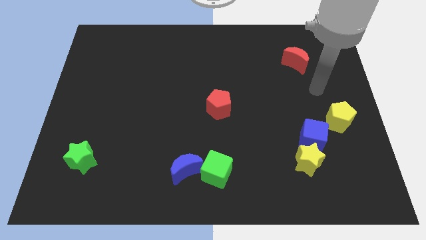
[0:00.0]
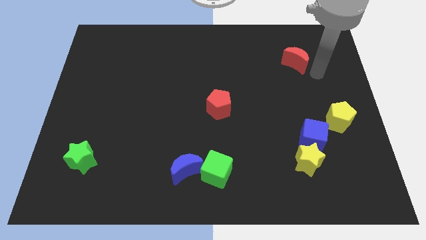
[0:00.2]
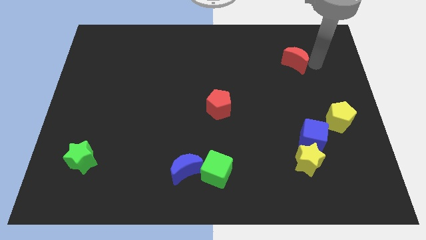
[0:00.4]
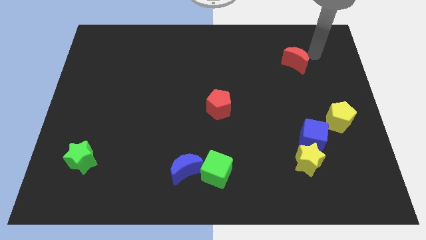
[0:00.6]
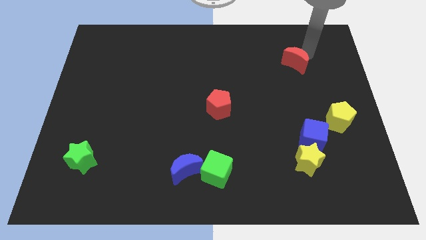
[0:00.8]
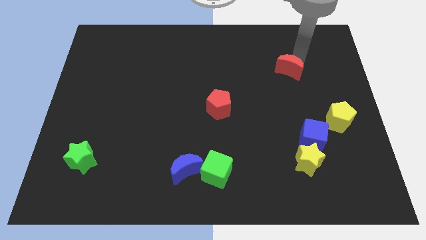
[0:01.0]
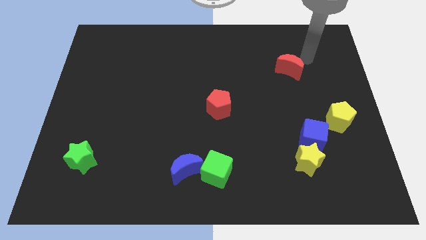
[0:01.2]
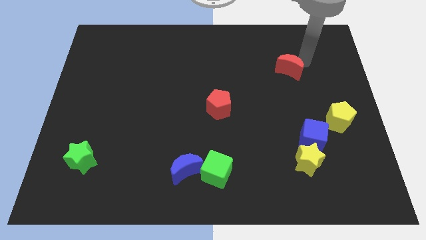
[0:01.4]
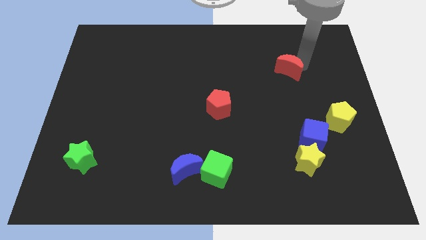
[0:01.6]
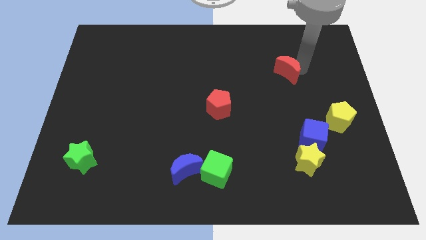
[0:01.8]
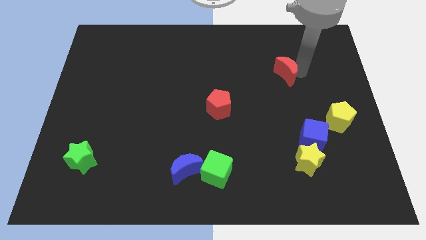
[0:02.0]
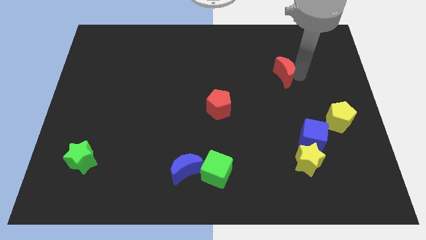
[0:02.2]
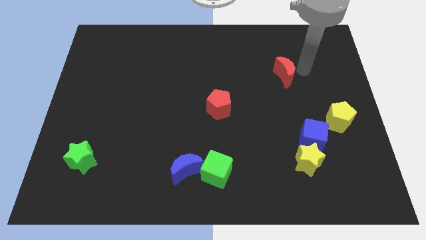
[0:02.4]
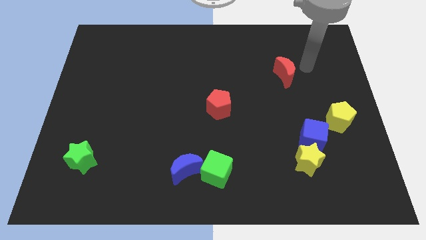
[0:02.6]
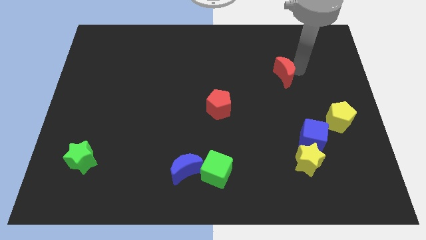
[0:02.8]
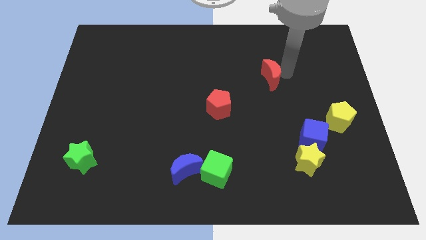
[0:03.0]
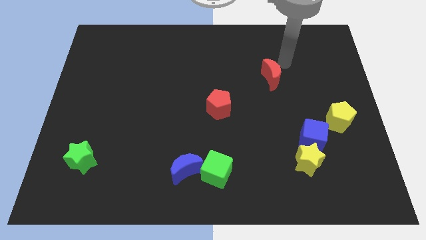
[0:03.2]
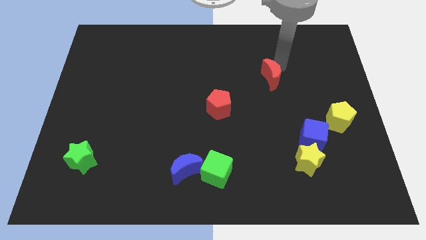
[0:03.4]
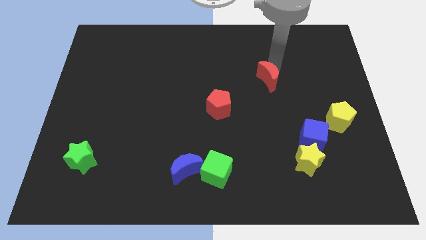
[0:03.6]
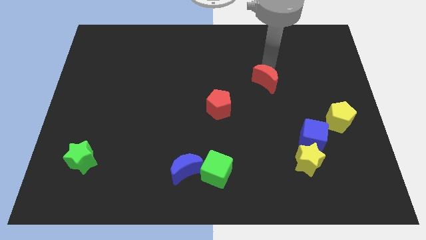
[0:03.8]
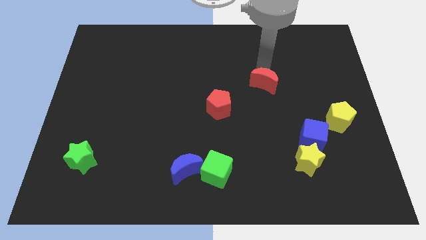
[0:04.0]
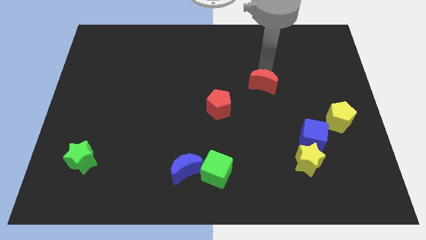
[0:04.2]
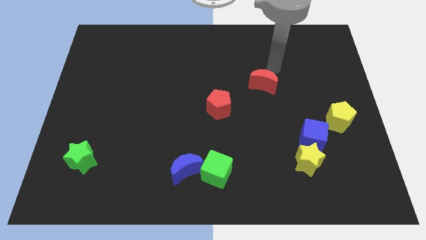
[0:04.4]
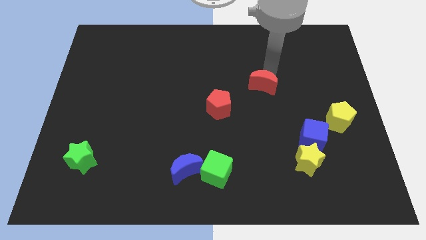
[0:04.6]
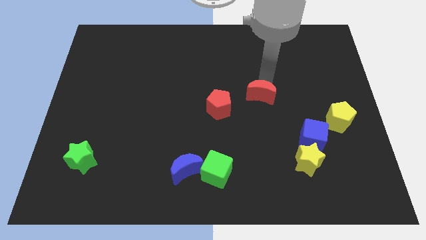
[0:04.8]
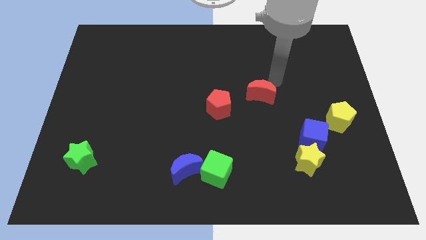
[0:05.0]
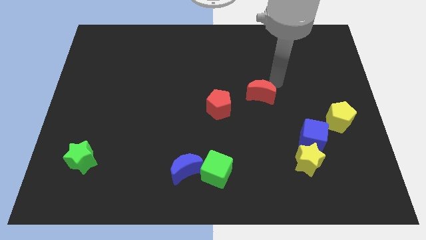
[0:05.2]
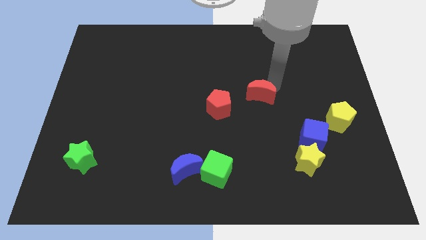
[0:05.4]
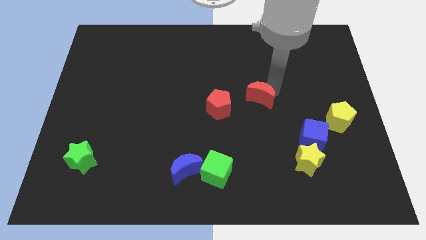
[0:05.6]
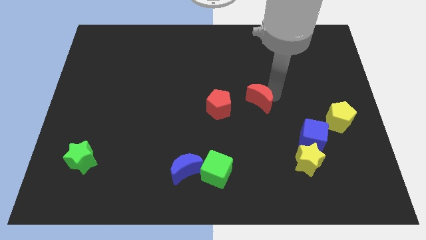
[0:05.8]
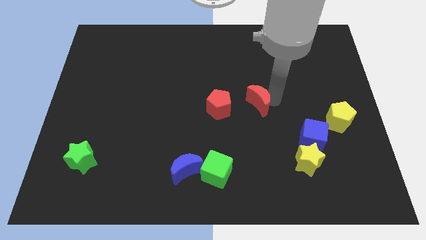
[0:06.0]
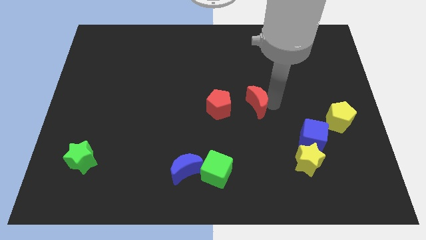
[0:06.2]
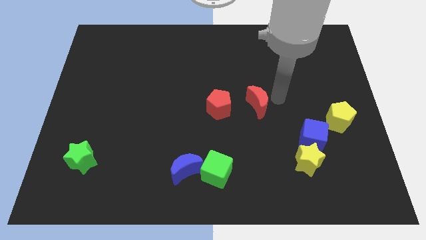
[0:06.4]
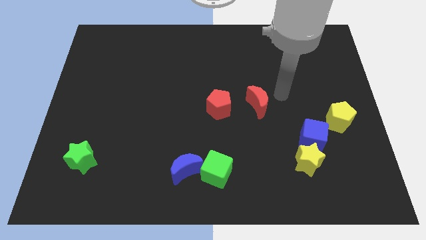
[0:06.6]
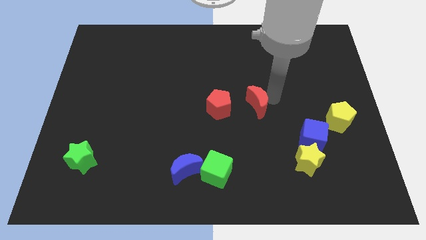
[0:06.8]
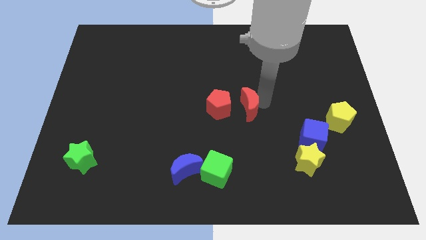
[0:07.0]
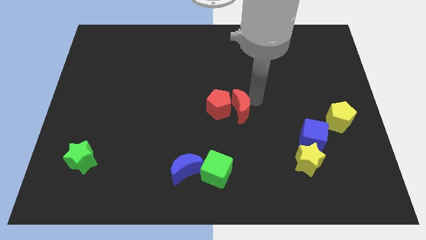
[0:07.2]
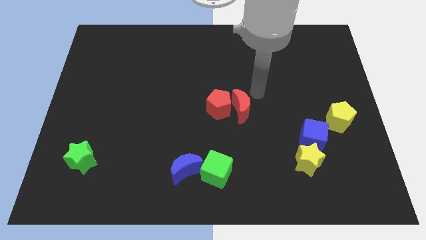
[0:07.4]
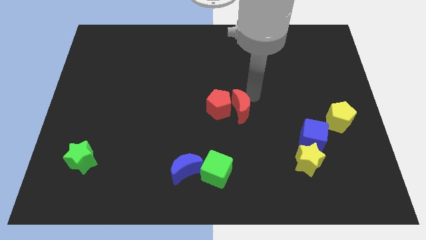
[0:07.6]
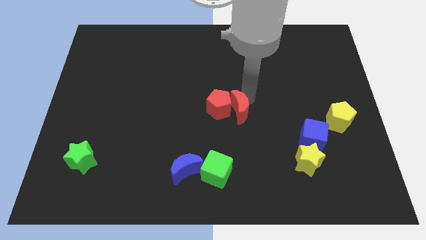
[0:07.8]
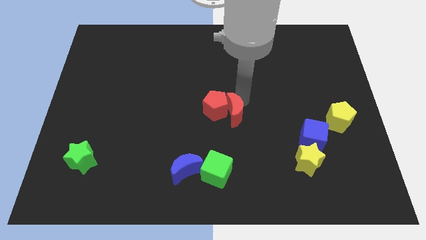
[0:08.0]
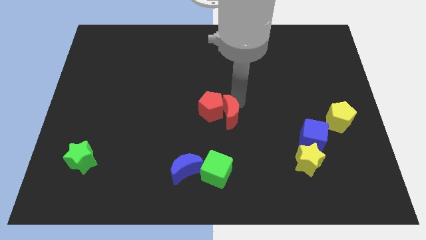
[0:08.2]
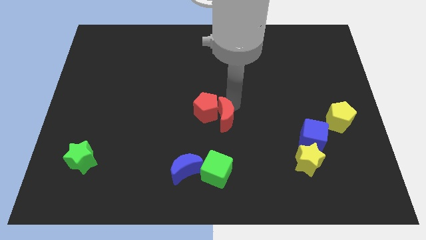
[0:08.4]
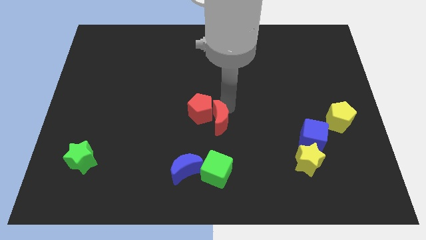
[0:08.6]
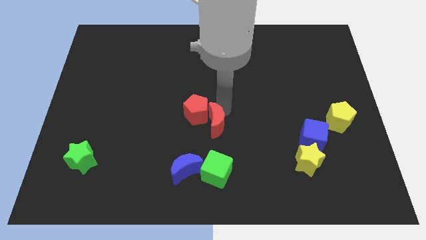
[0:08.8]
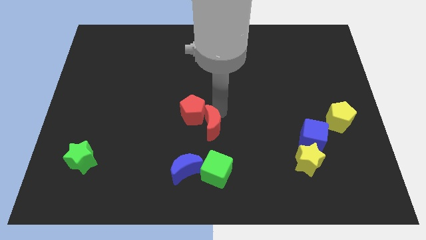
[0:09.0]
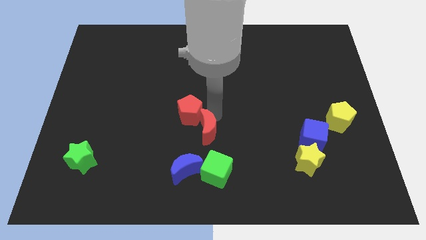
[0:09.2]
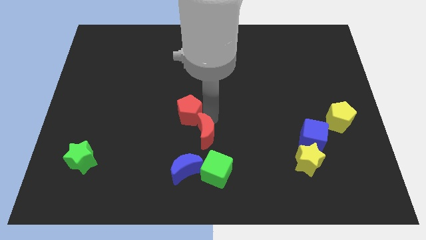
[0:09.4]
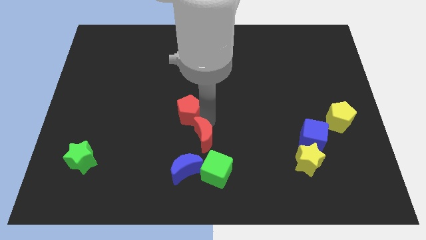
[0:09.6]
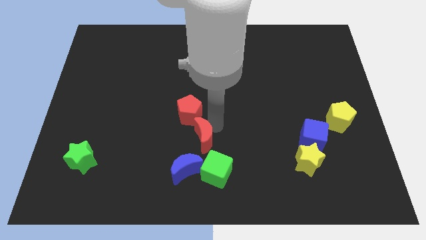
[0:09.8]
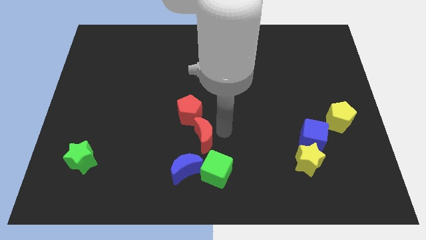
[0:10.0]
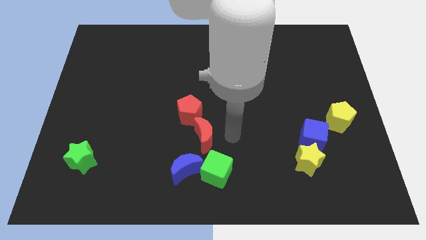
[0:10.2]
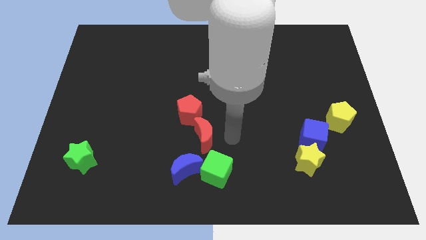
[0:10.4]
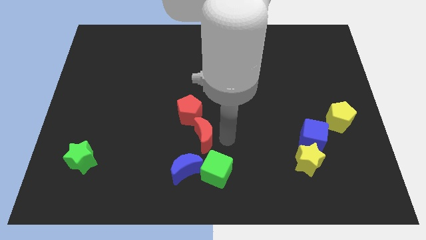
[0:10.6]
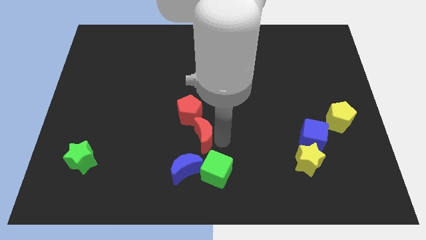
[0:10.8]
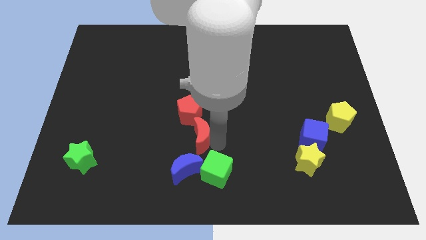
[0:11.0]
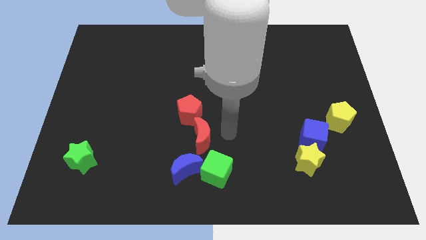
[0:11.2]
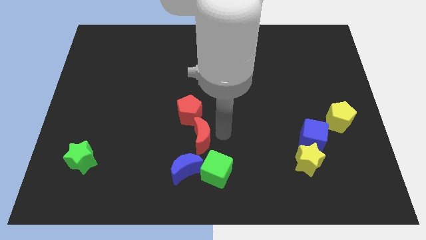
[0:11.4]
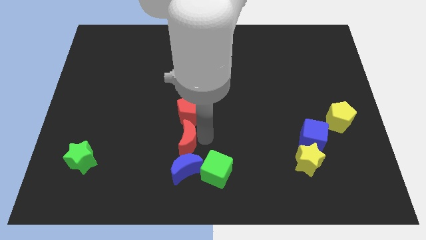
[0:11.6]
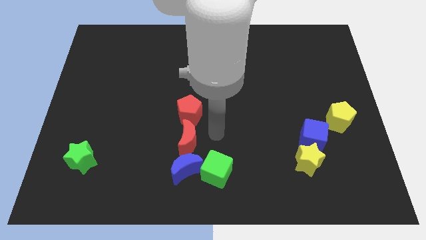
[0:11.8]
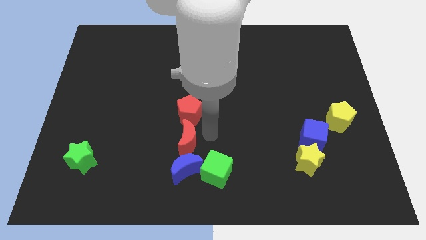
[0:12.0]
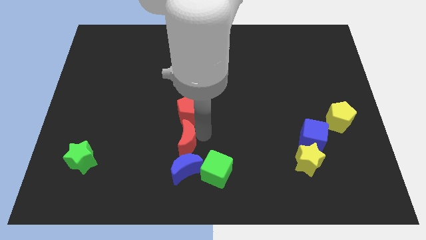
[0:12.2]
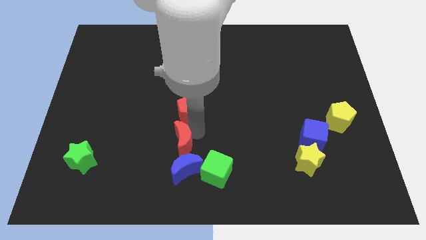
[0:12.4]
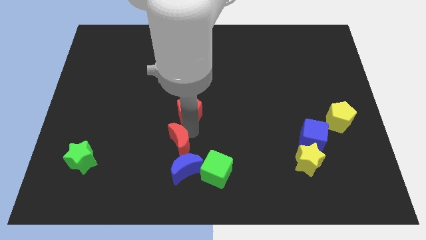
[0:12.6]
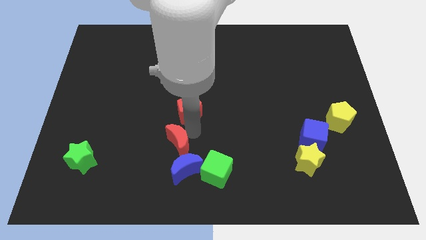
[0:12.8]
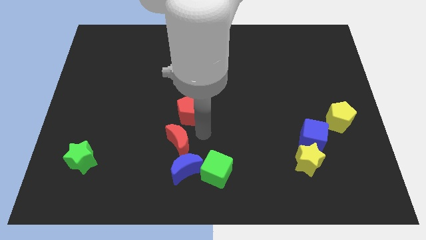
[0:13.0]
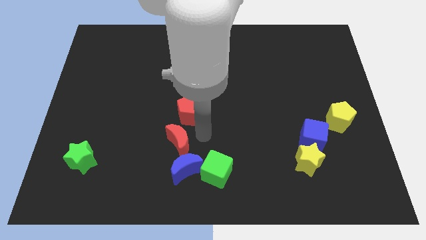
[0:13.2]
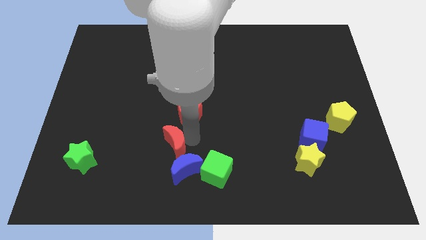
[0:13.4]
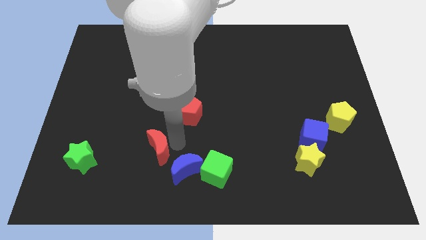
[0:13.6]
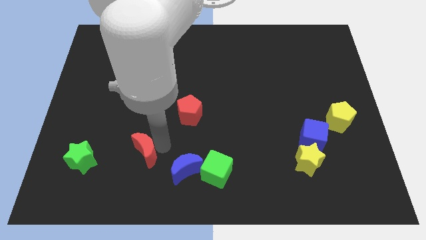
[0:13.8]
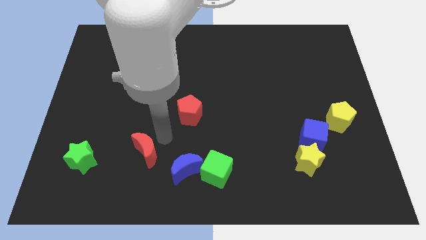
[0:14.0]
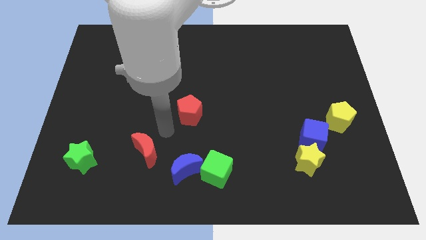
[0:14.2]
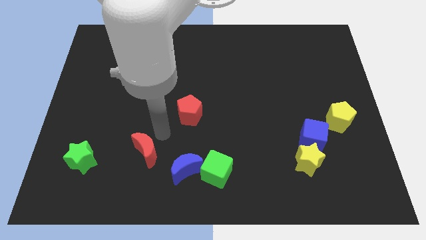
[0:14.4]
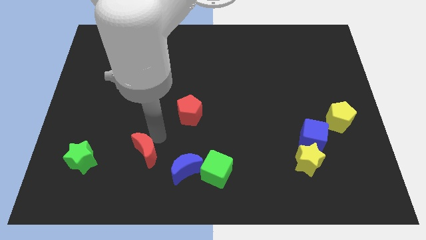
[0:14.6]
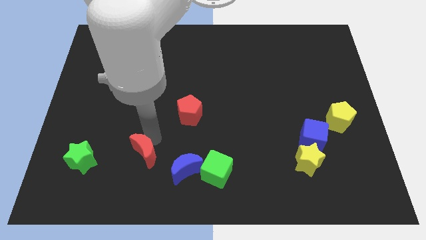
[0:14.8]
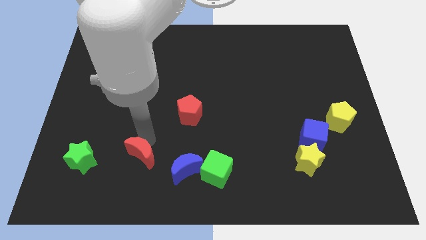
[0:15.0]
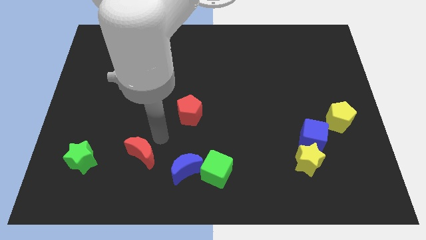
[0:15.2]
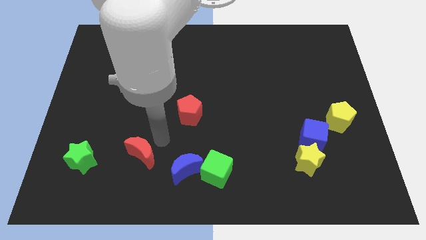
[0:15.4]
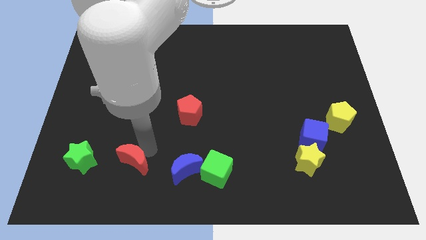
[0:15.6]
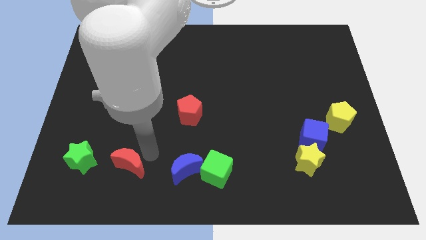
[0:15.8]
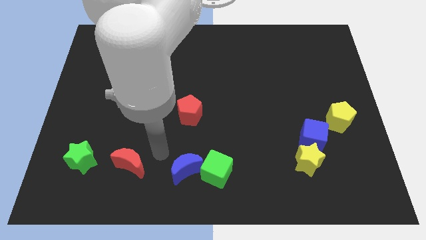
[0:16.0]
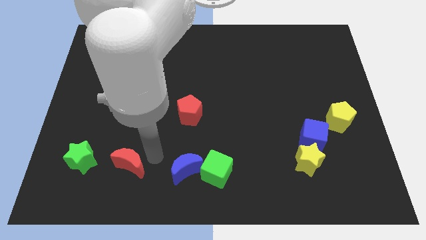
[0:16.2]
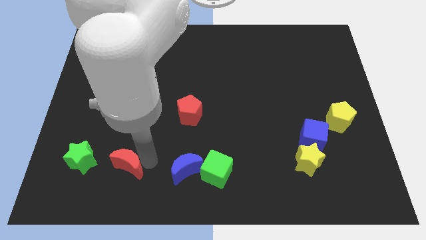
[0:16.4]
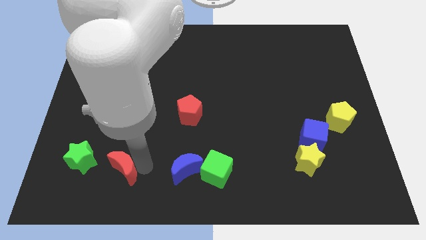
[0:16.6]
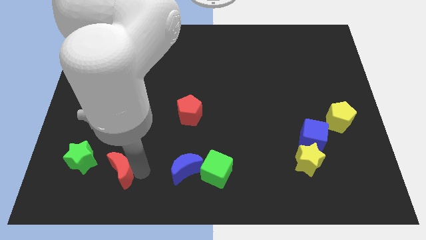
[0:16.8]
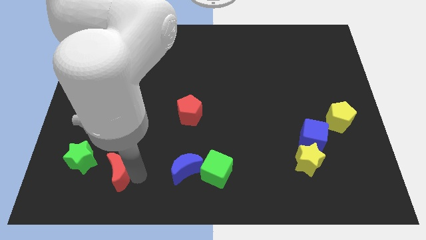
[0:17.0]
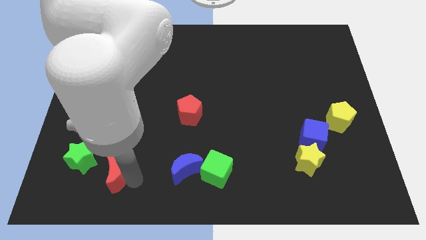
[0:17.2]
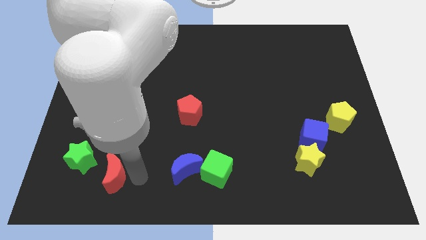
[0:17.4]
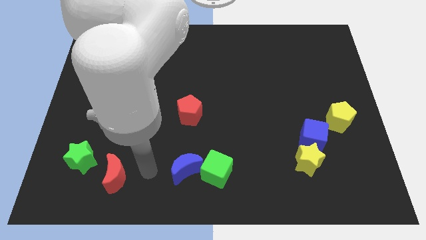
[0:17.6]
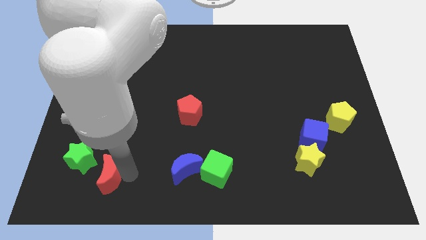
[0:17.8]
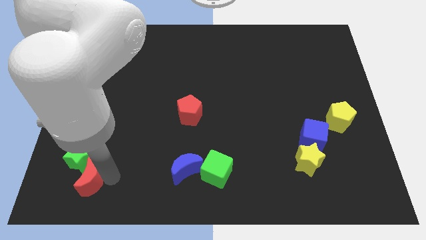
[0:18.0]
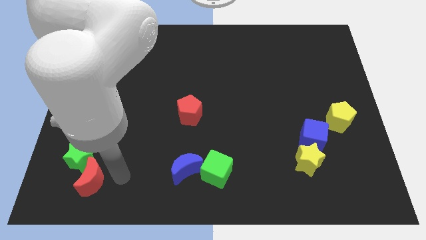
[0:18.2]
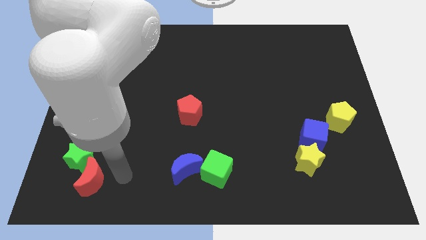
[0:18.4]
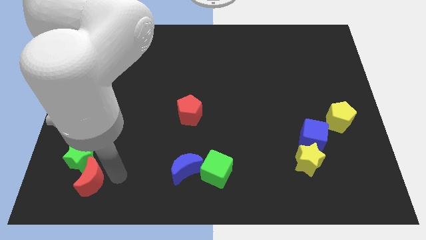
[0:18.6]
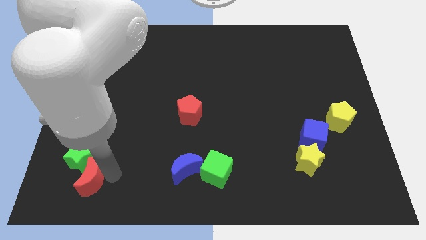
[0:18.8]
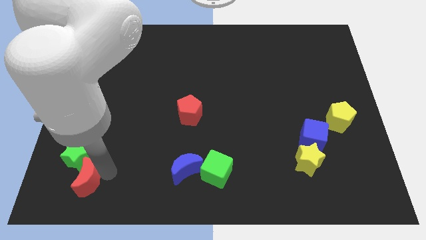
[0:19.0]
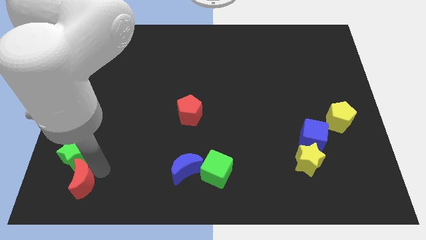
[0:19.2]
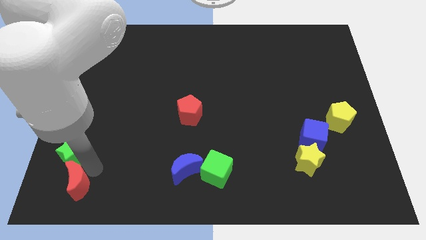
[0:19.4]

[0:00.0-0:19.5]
slide the red moon to the bottom left
